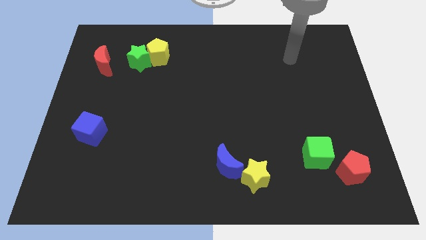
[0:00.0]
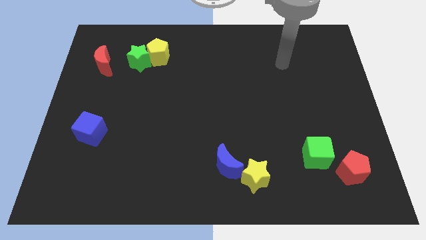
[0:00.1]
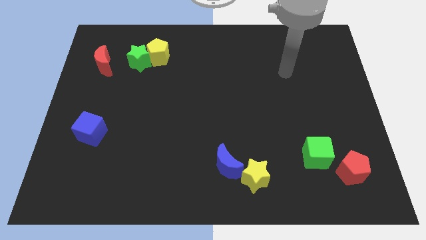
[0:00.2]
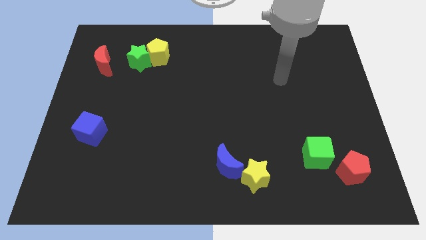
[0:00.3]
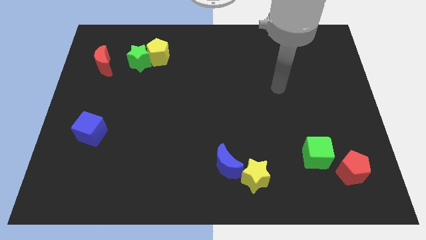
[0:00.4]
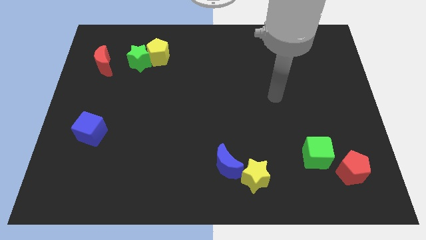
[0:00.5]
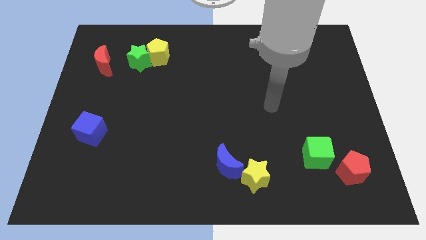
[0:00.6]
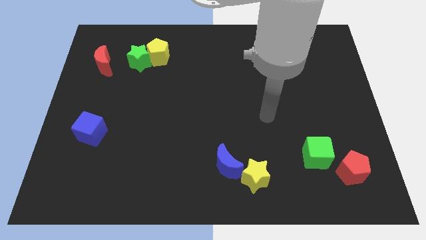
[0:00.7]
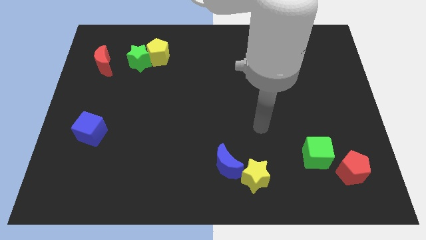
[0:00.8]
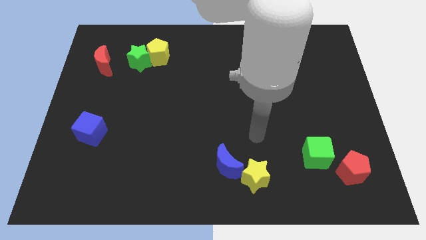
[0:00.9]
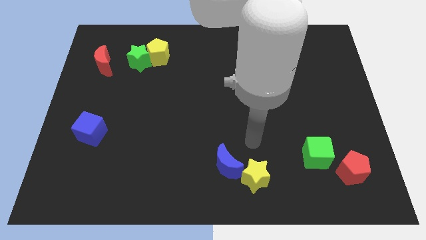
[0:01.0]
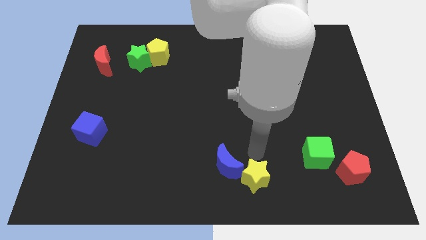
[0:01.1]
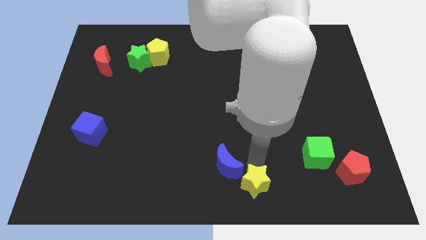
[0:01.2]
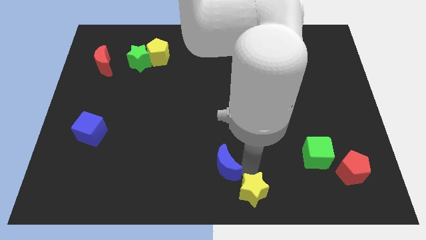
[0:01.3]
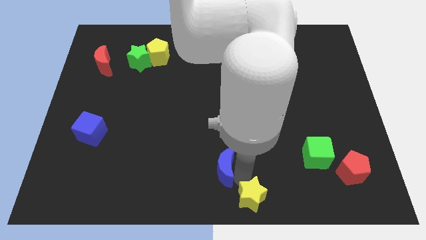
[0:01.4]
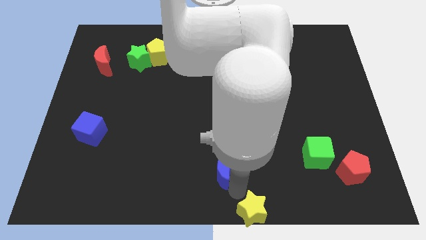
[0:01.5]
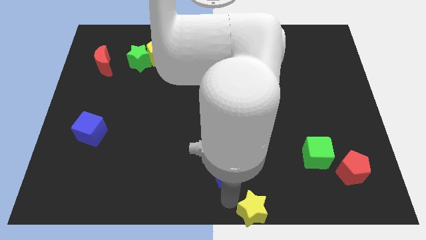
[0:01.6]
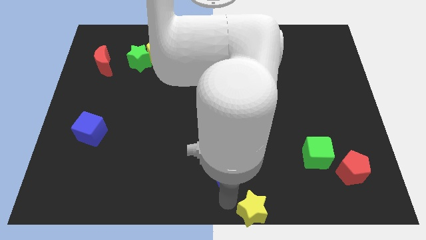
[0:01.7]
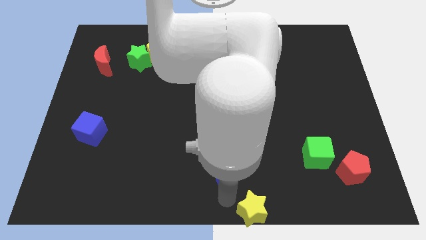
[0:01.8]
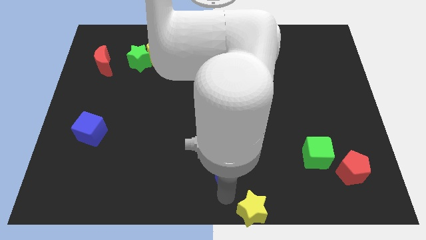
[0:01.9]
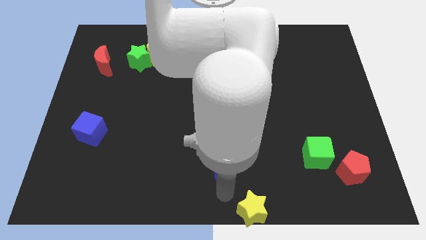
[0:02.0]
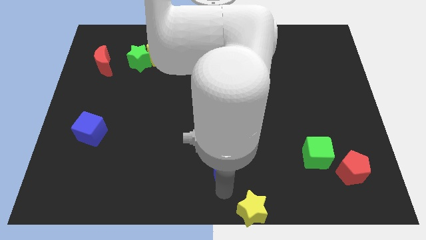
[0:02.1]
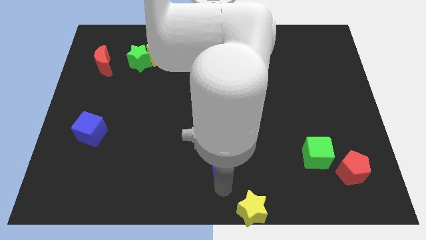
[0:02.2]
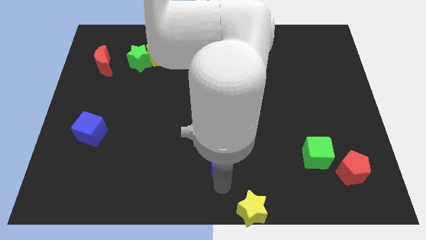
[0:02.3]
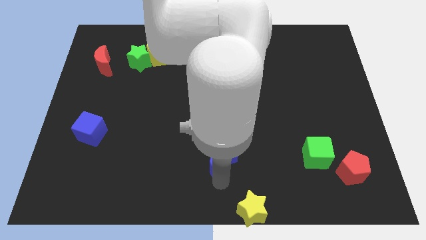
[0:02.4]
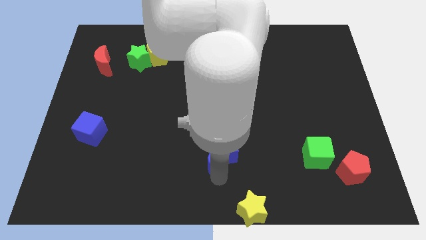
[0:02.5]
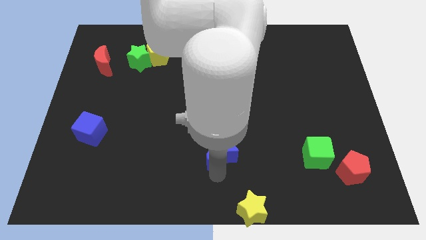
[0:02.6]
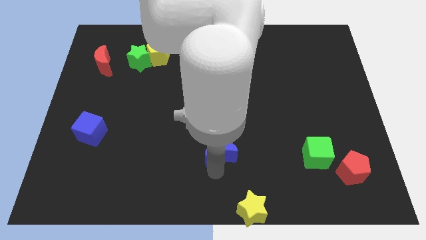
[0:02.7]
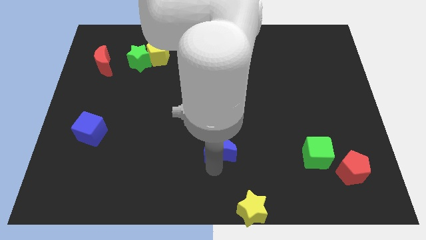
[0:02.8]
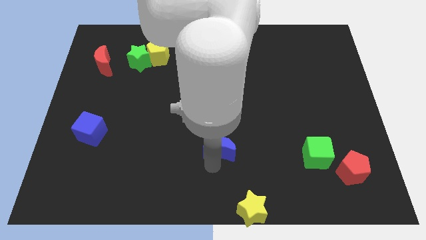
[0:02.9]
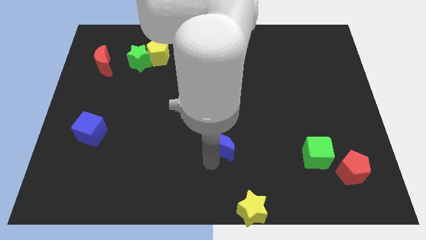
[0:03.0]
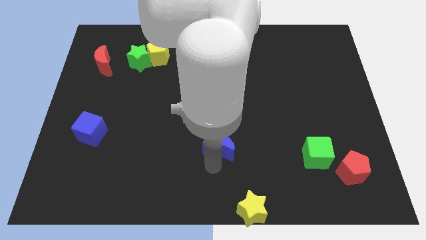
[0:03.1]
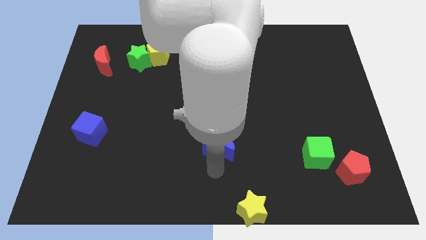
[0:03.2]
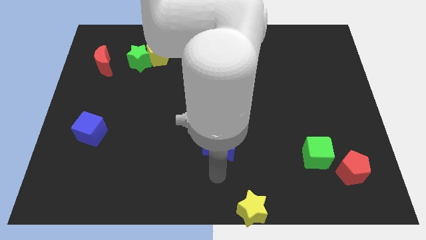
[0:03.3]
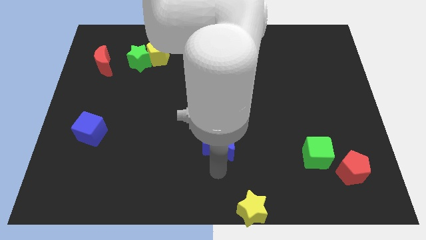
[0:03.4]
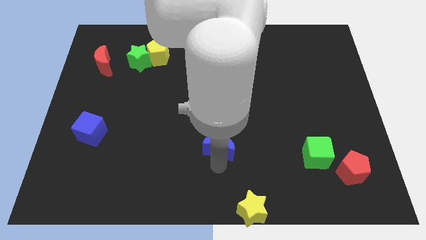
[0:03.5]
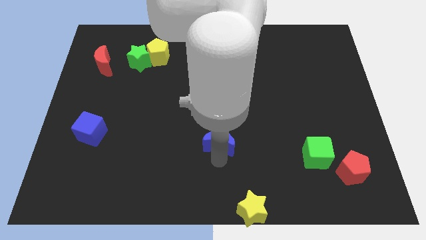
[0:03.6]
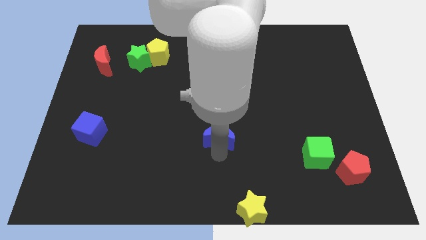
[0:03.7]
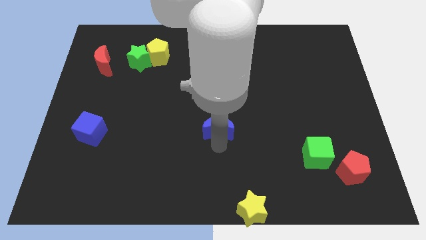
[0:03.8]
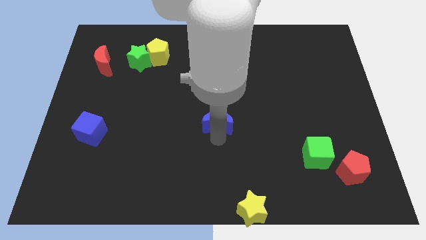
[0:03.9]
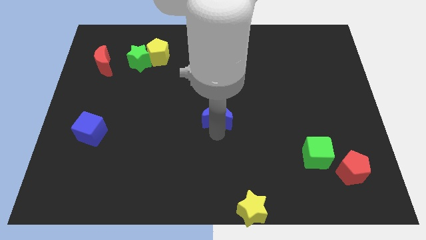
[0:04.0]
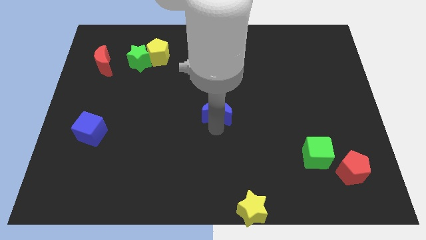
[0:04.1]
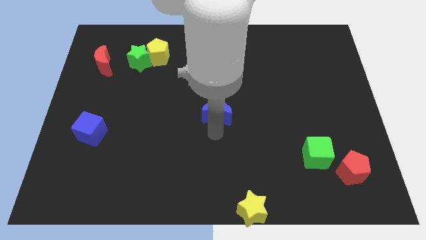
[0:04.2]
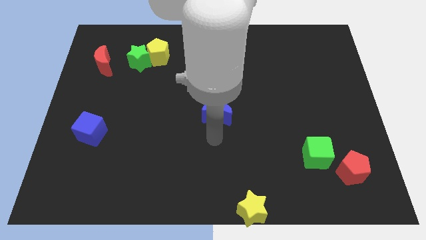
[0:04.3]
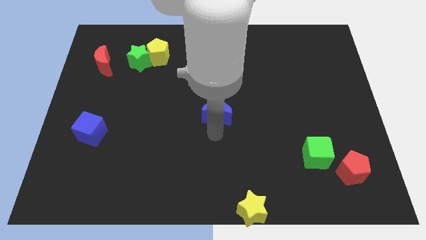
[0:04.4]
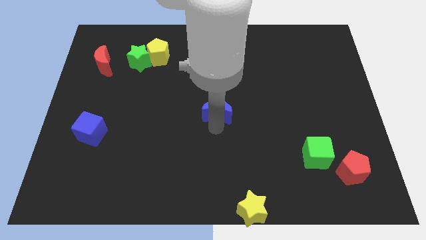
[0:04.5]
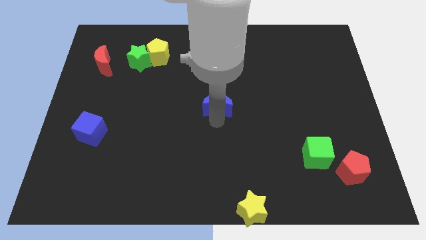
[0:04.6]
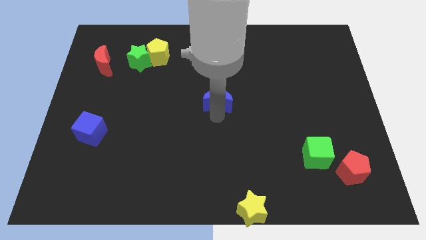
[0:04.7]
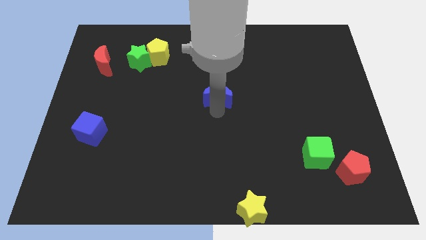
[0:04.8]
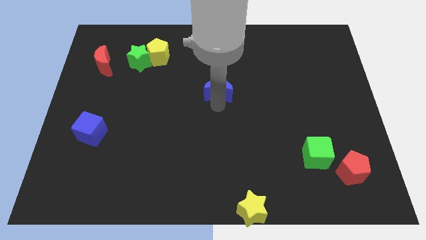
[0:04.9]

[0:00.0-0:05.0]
move the blue moon up

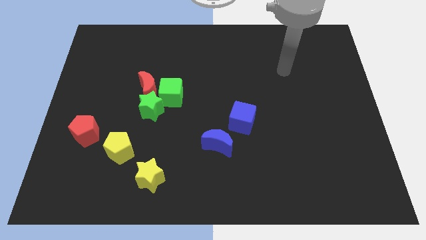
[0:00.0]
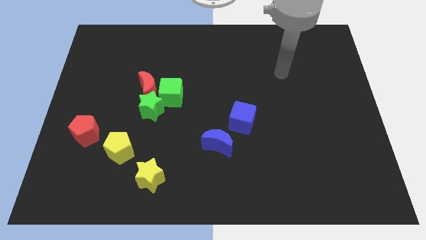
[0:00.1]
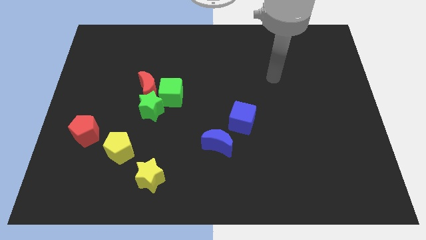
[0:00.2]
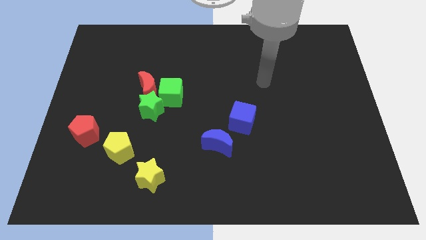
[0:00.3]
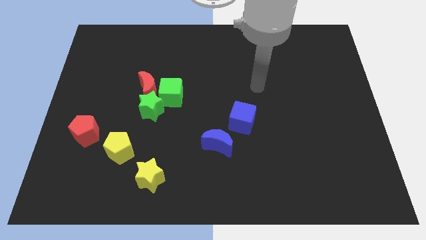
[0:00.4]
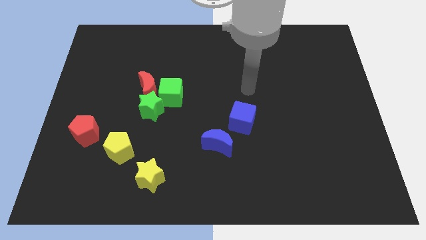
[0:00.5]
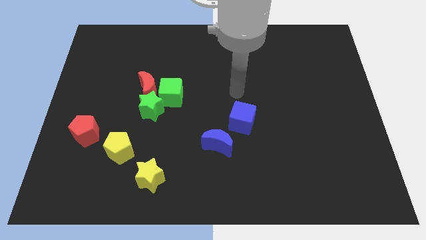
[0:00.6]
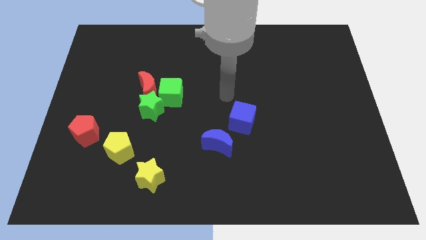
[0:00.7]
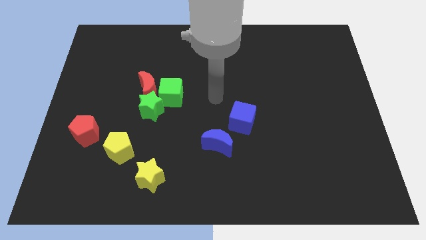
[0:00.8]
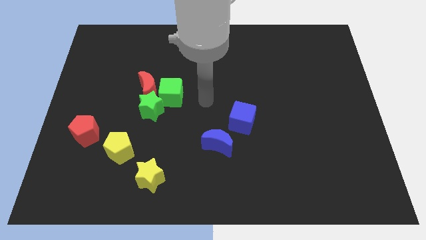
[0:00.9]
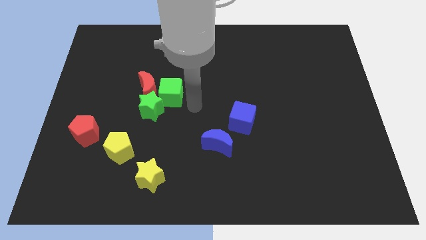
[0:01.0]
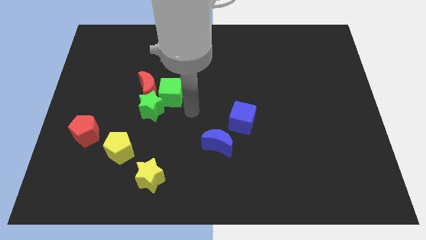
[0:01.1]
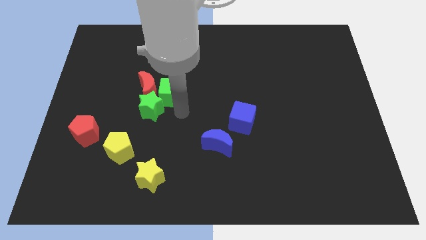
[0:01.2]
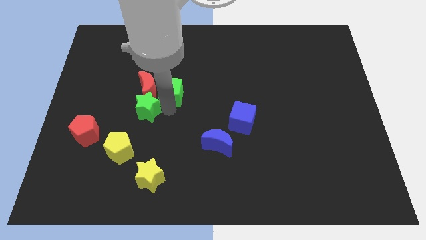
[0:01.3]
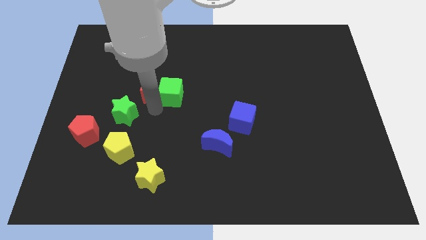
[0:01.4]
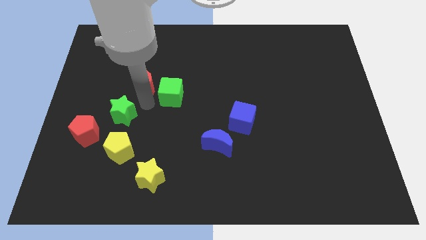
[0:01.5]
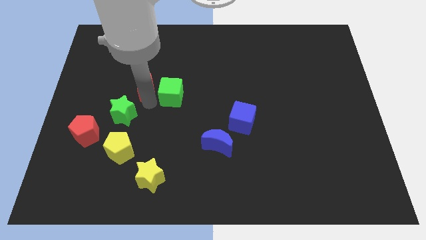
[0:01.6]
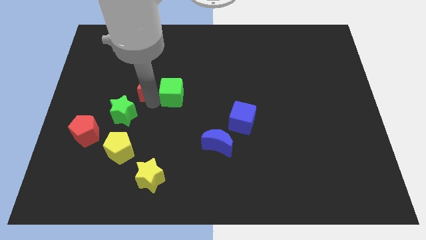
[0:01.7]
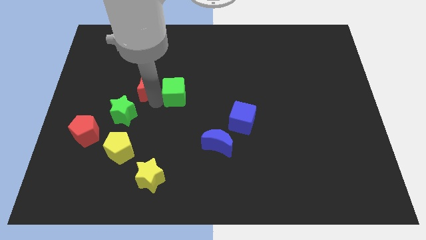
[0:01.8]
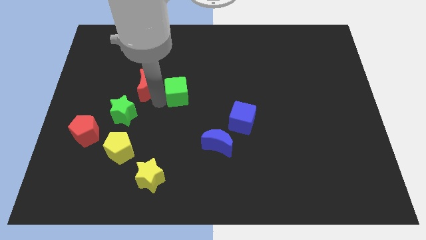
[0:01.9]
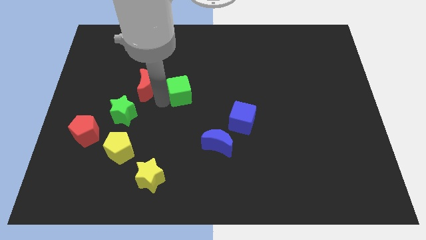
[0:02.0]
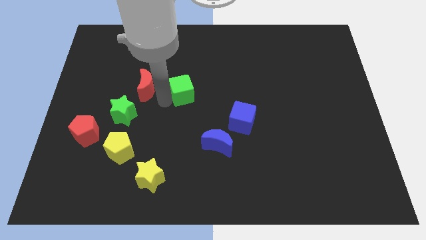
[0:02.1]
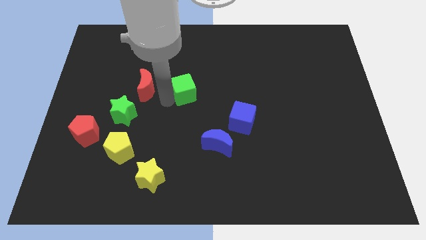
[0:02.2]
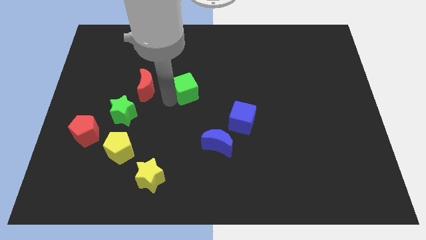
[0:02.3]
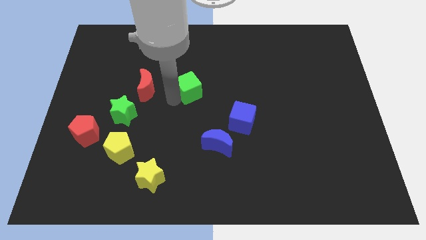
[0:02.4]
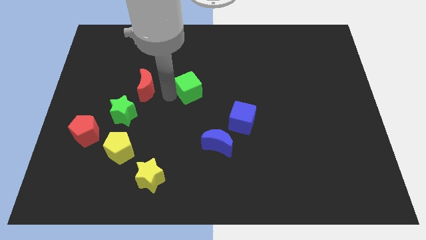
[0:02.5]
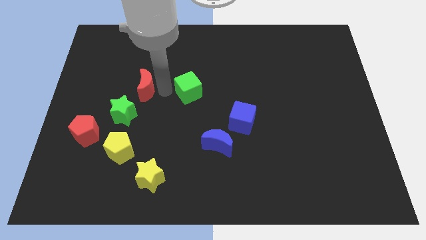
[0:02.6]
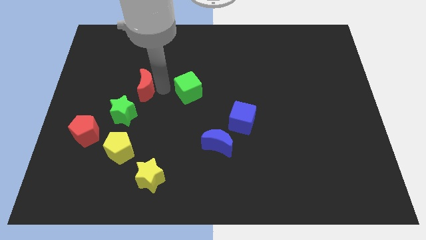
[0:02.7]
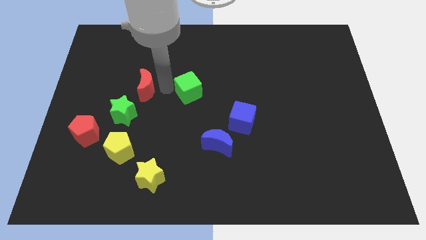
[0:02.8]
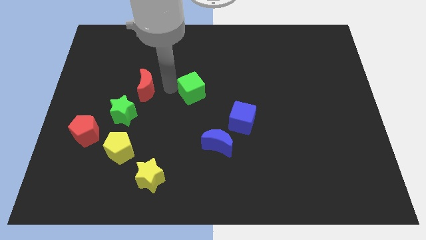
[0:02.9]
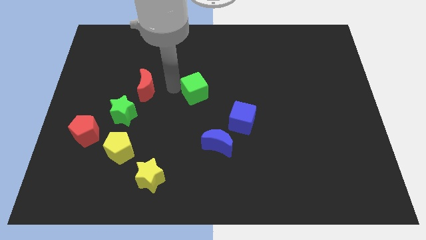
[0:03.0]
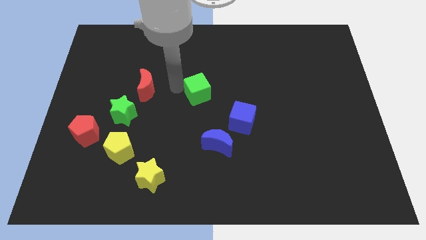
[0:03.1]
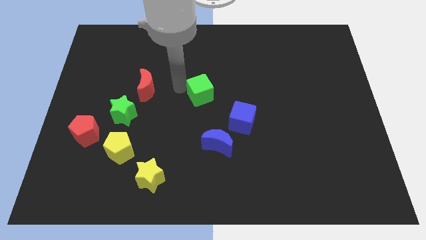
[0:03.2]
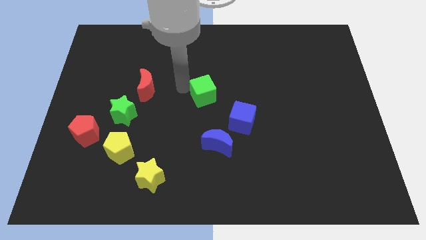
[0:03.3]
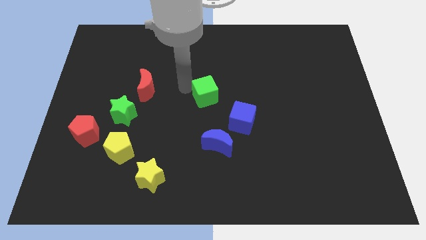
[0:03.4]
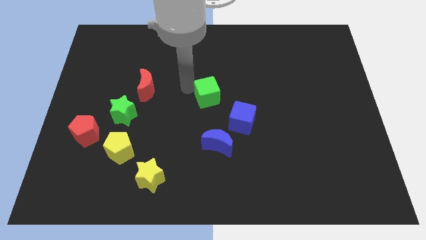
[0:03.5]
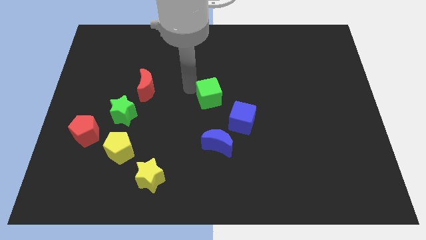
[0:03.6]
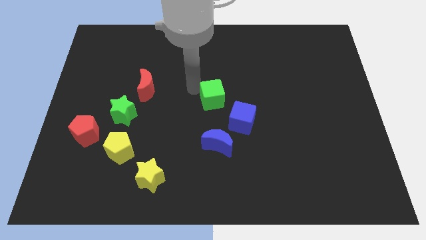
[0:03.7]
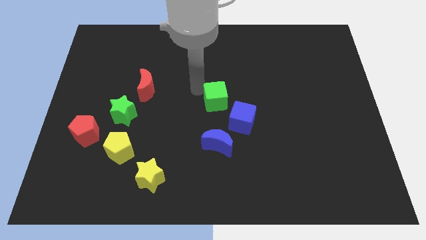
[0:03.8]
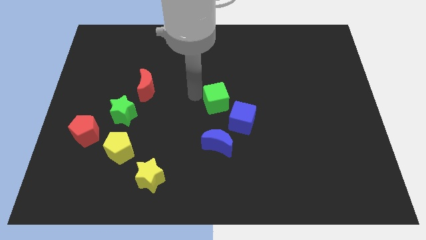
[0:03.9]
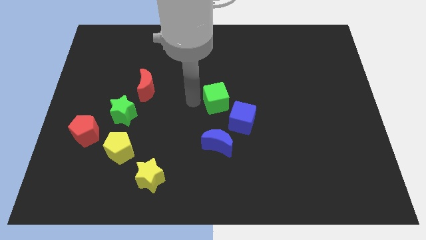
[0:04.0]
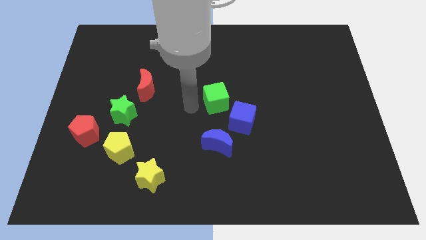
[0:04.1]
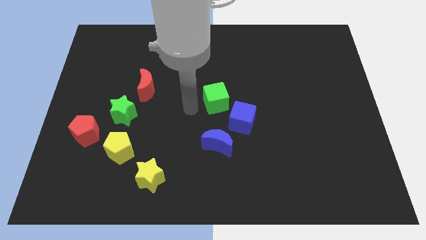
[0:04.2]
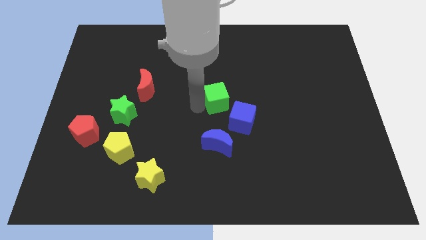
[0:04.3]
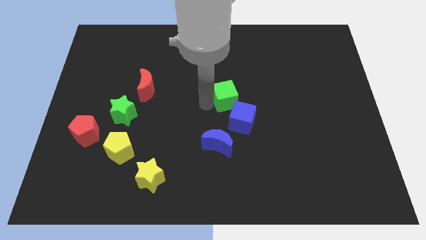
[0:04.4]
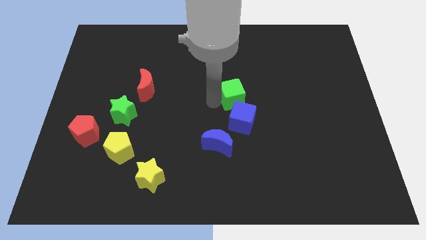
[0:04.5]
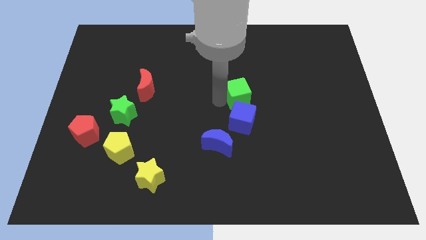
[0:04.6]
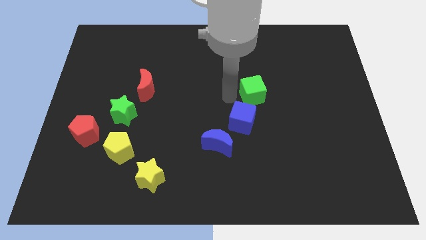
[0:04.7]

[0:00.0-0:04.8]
slide the green cube right
